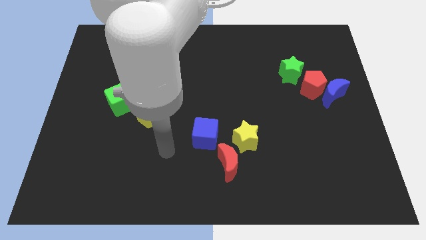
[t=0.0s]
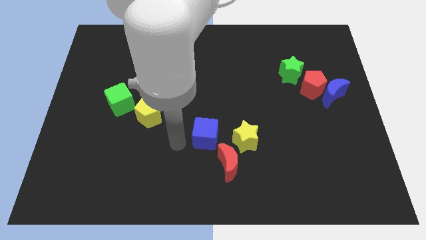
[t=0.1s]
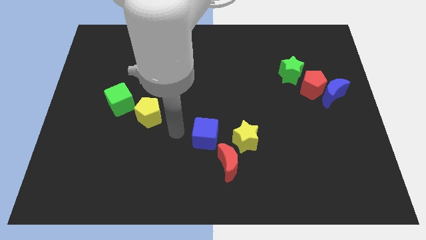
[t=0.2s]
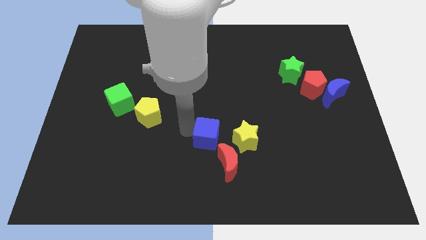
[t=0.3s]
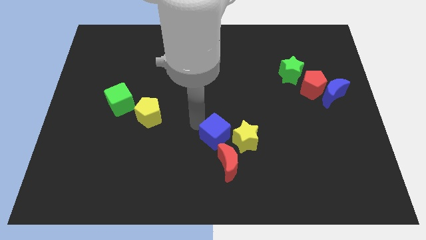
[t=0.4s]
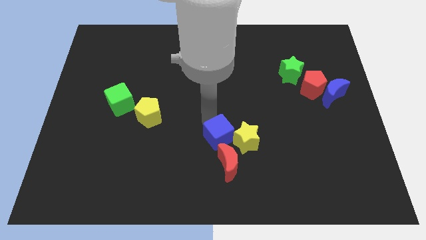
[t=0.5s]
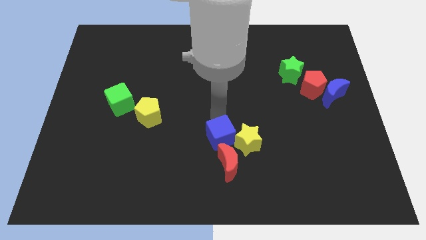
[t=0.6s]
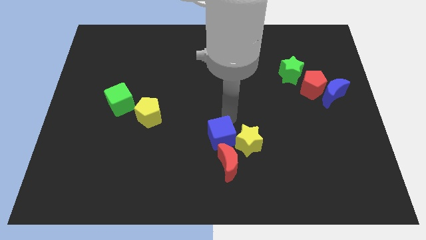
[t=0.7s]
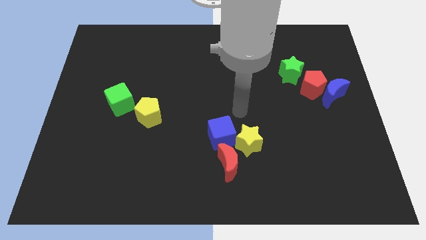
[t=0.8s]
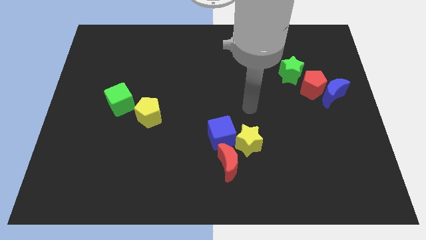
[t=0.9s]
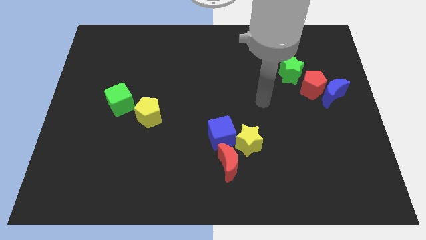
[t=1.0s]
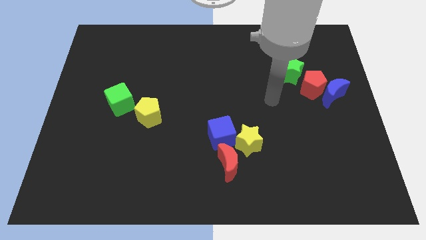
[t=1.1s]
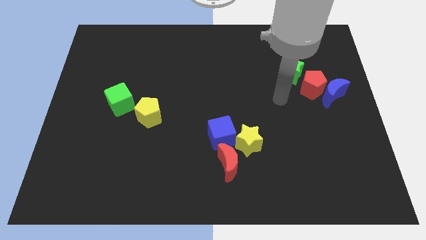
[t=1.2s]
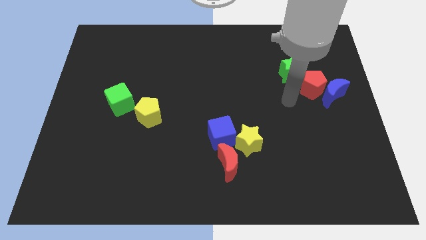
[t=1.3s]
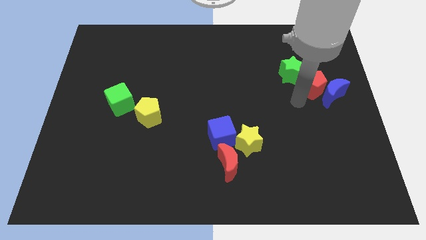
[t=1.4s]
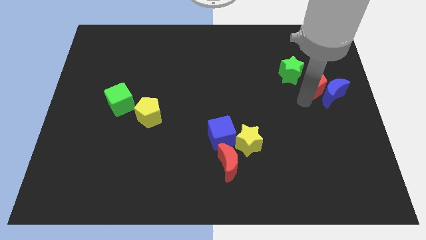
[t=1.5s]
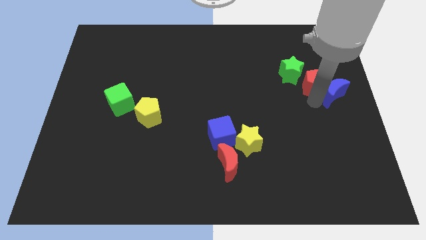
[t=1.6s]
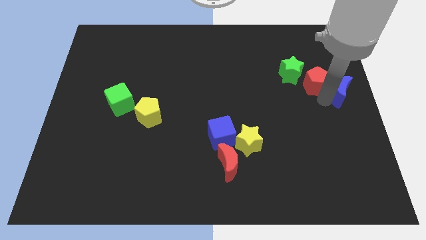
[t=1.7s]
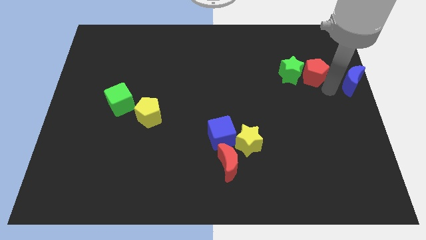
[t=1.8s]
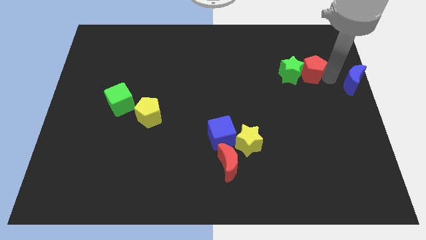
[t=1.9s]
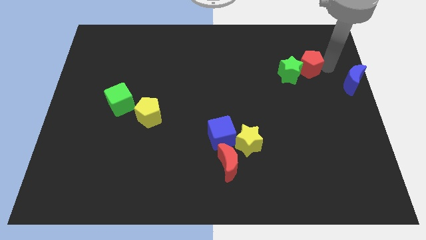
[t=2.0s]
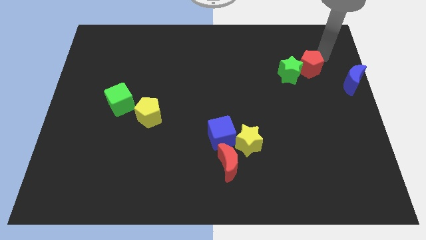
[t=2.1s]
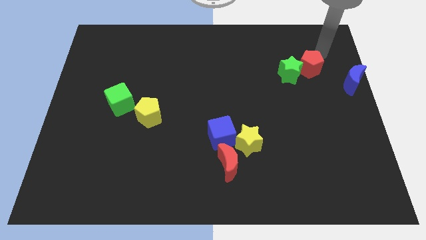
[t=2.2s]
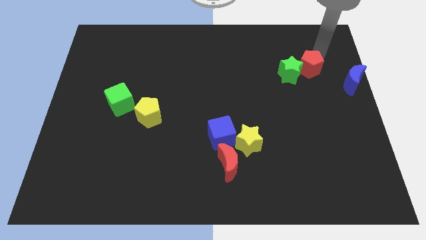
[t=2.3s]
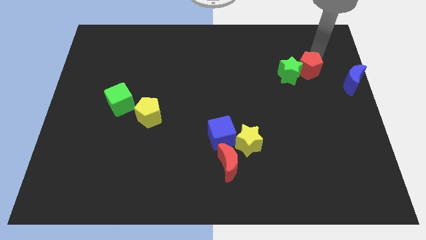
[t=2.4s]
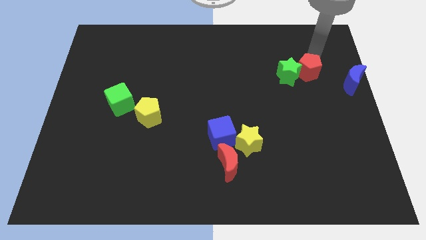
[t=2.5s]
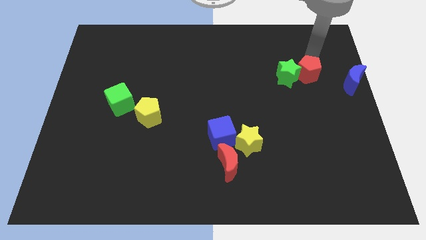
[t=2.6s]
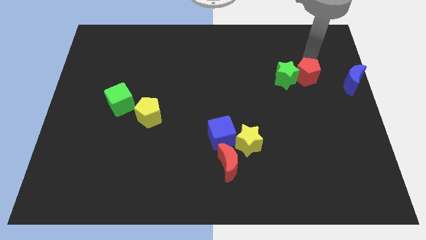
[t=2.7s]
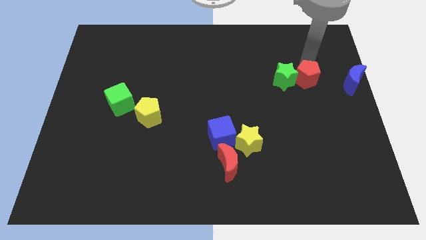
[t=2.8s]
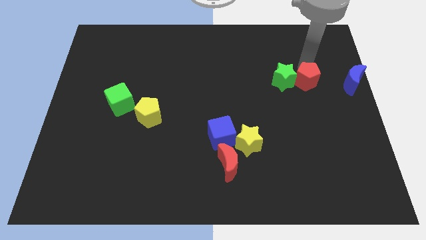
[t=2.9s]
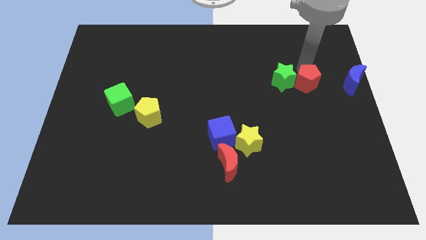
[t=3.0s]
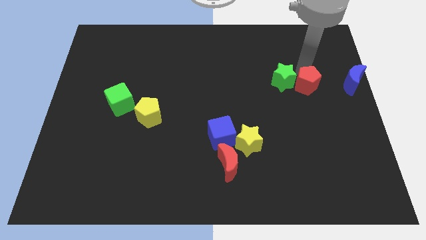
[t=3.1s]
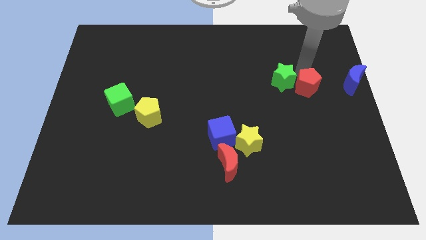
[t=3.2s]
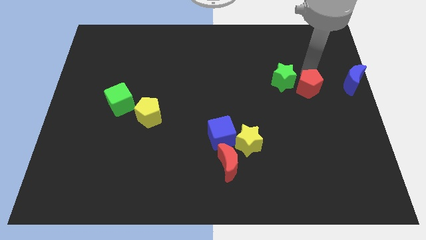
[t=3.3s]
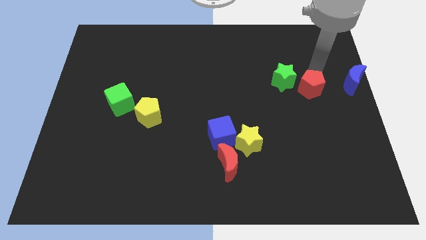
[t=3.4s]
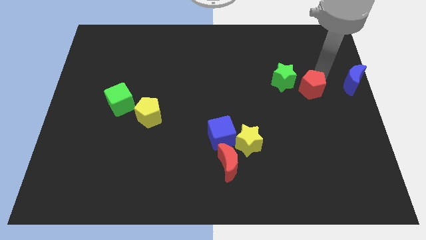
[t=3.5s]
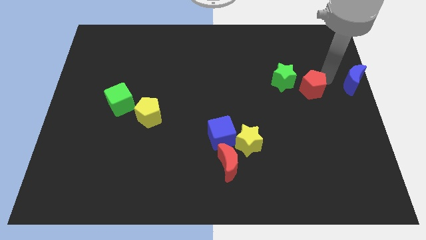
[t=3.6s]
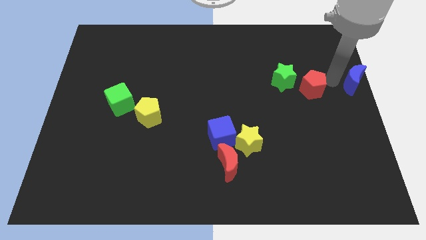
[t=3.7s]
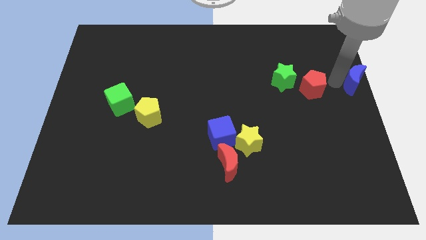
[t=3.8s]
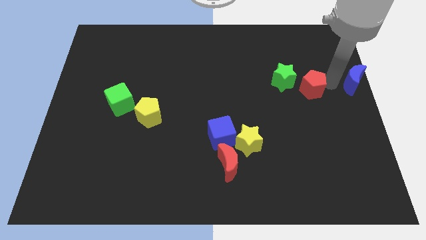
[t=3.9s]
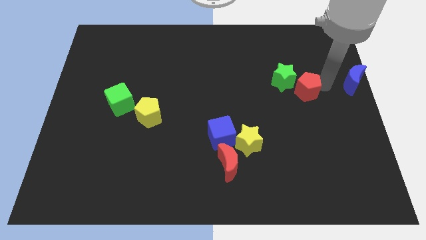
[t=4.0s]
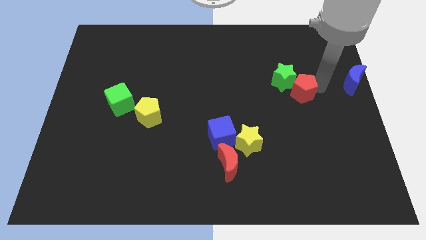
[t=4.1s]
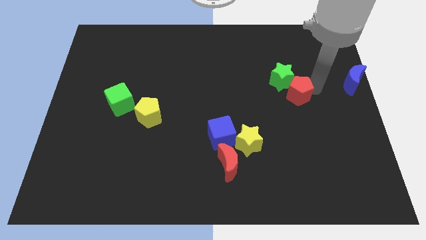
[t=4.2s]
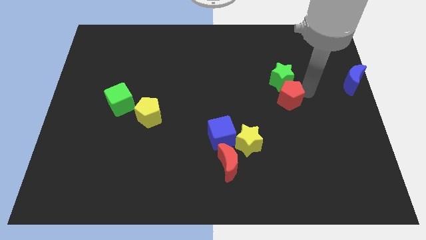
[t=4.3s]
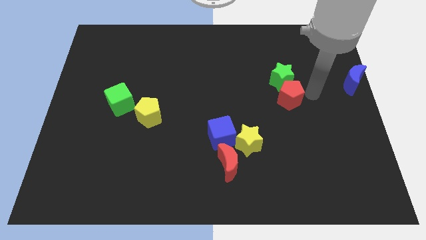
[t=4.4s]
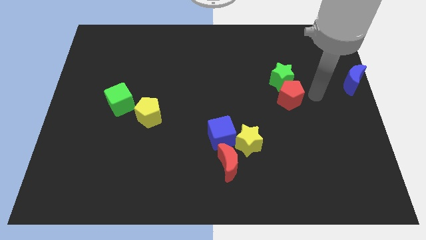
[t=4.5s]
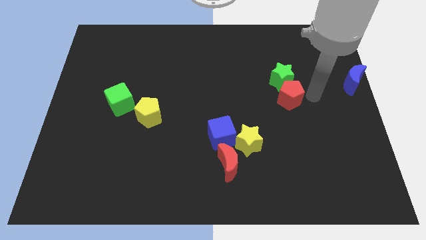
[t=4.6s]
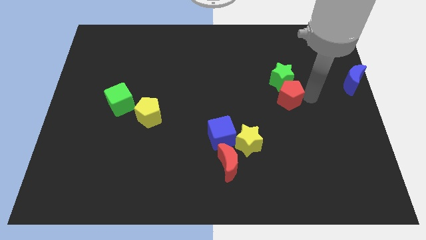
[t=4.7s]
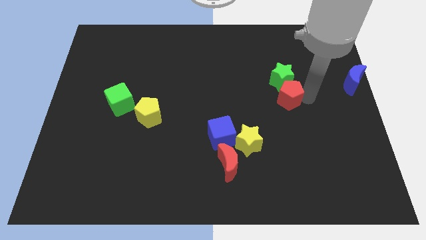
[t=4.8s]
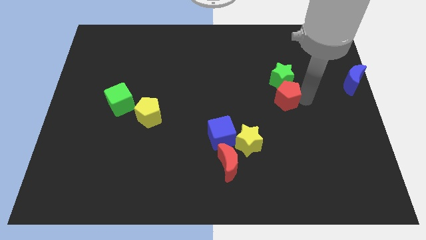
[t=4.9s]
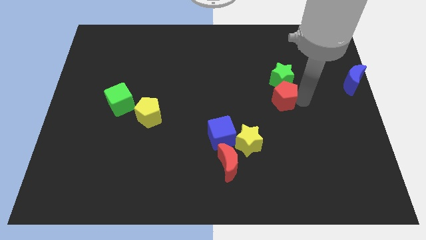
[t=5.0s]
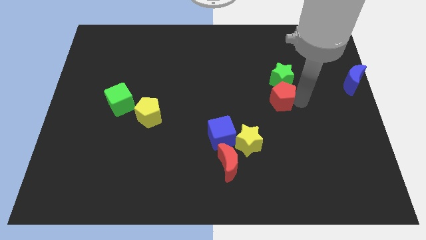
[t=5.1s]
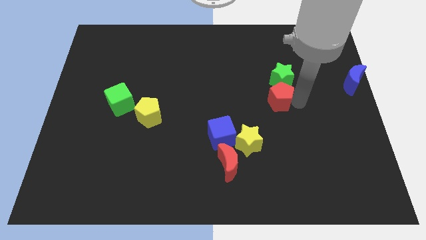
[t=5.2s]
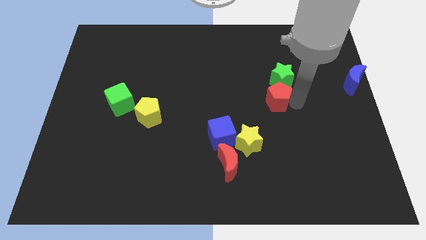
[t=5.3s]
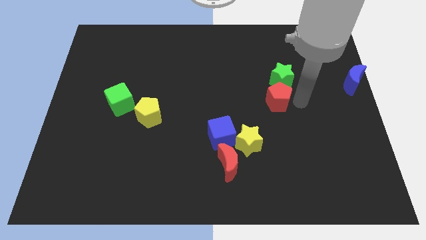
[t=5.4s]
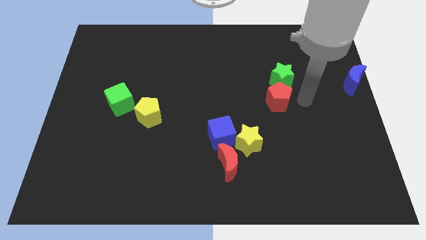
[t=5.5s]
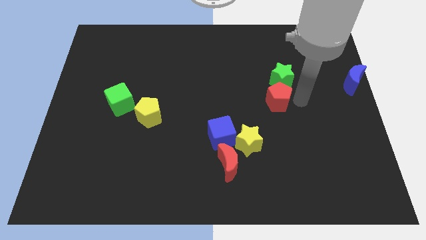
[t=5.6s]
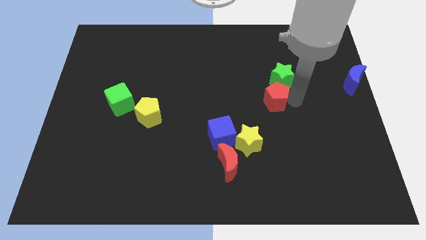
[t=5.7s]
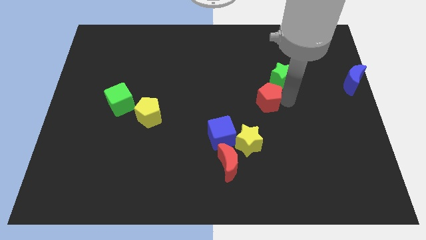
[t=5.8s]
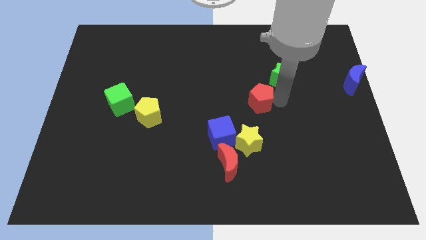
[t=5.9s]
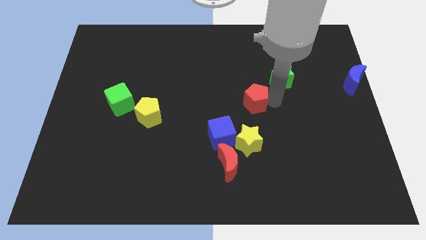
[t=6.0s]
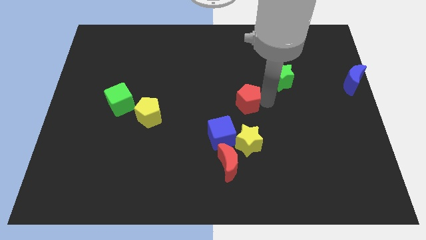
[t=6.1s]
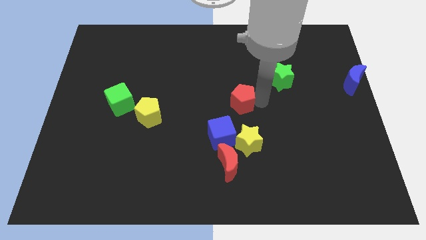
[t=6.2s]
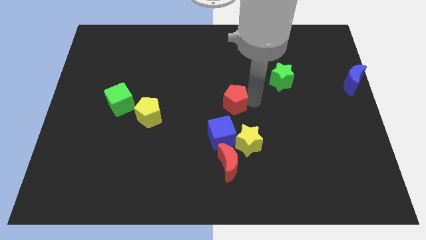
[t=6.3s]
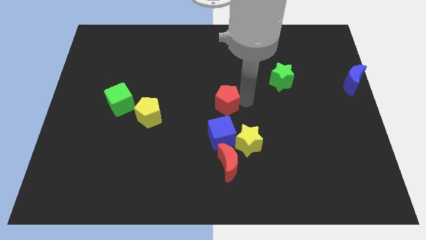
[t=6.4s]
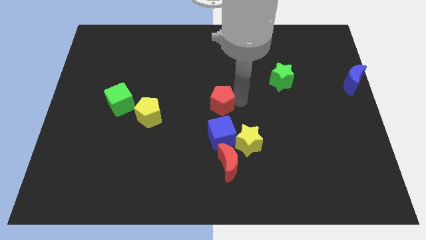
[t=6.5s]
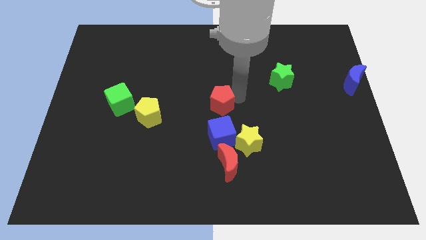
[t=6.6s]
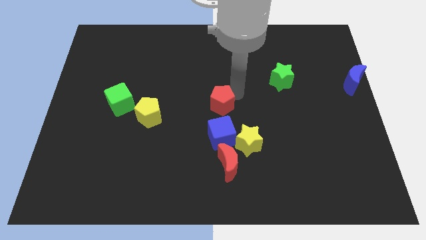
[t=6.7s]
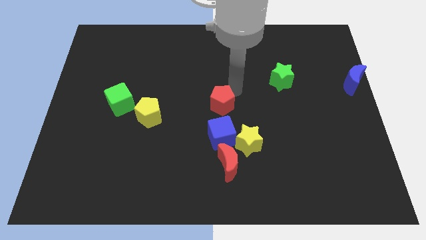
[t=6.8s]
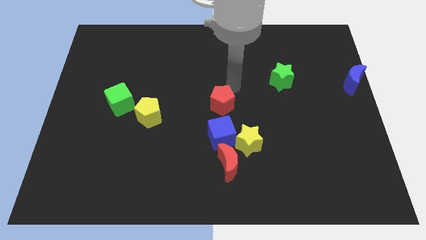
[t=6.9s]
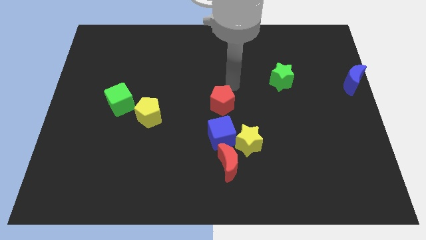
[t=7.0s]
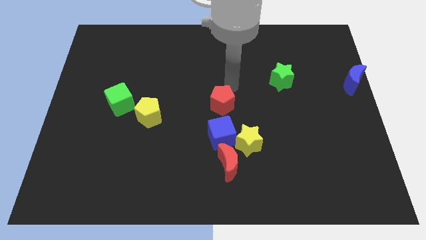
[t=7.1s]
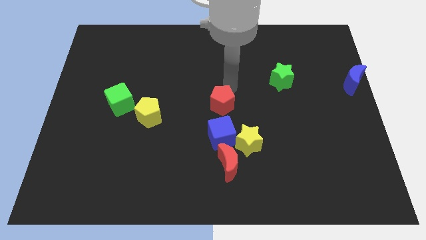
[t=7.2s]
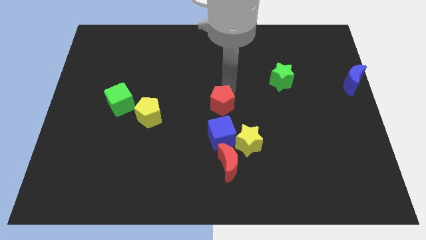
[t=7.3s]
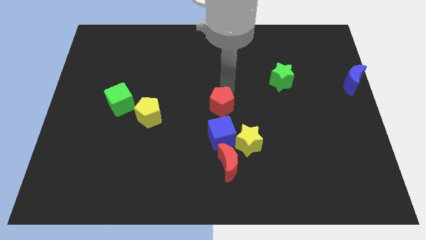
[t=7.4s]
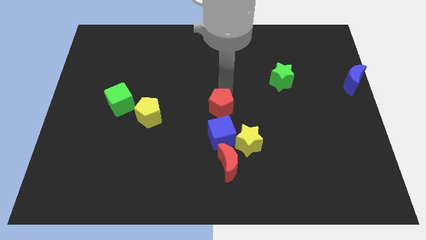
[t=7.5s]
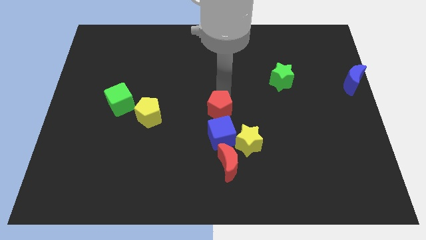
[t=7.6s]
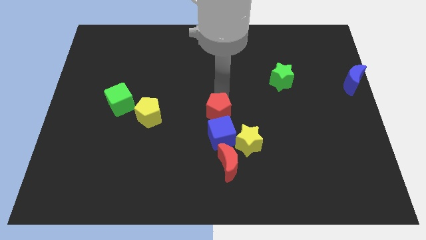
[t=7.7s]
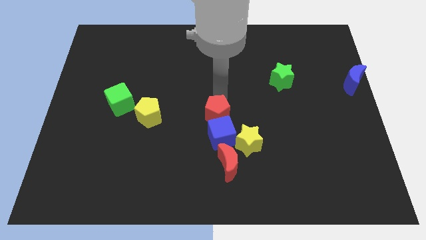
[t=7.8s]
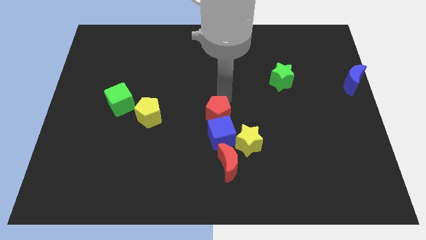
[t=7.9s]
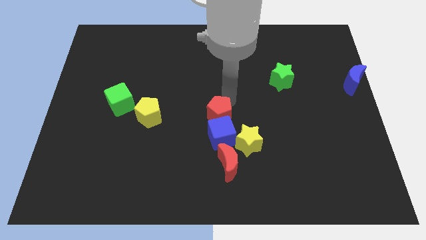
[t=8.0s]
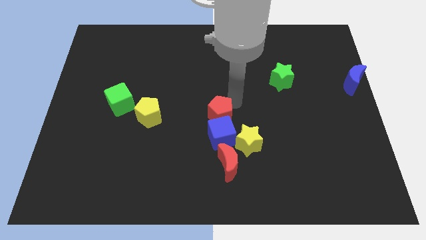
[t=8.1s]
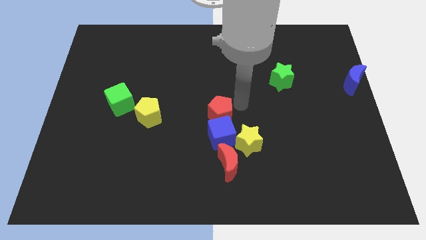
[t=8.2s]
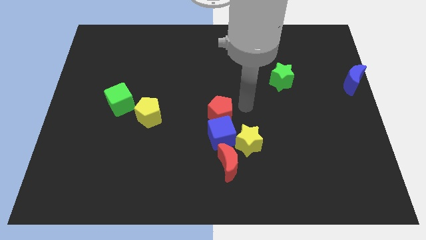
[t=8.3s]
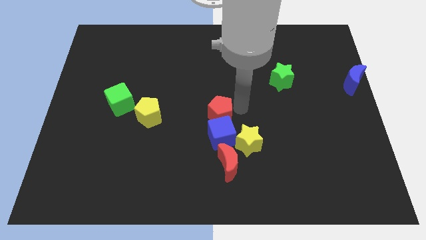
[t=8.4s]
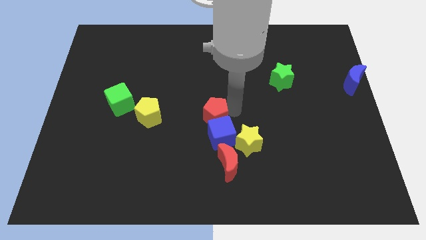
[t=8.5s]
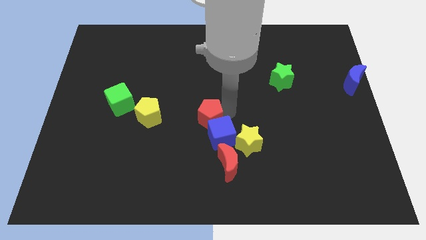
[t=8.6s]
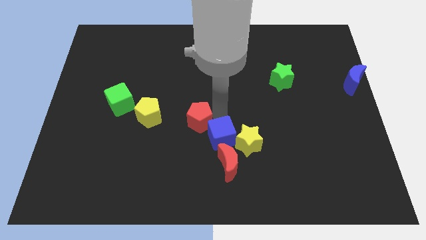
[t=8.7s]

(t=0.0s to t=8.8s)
put the red pentagon just left of the blue cube
